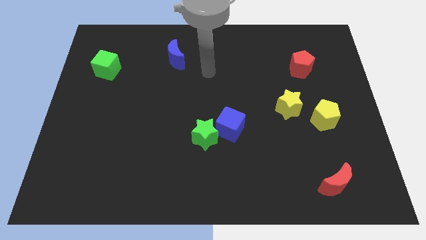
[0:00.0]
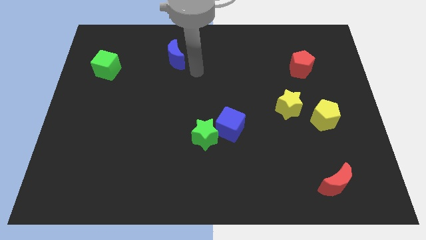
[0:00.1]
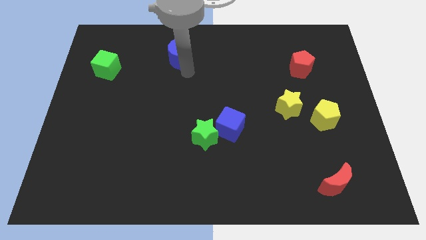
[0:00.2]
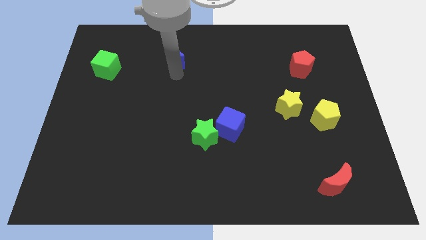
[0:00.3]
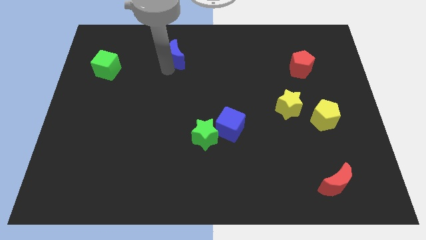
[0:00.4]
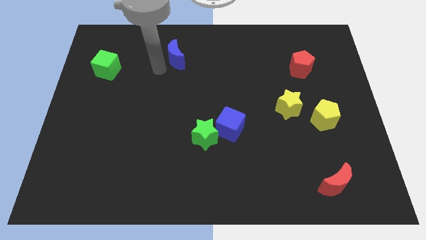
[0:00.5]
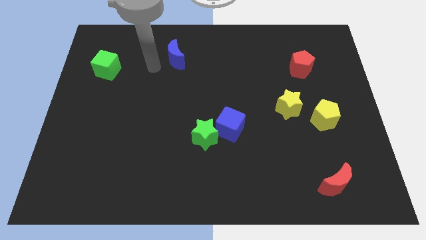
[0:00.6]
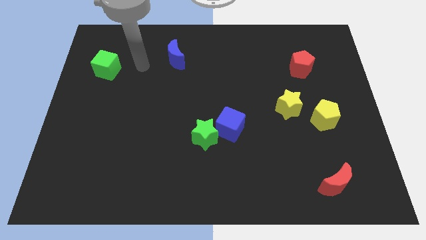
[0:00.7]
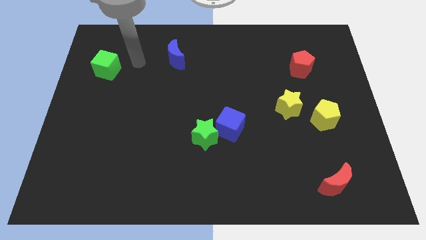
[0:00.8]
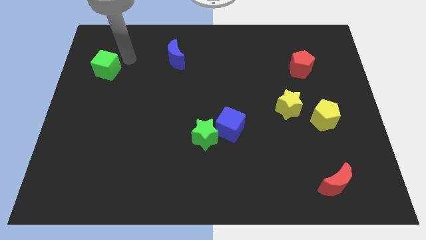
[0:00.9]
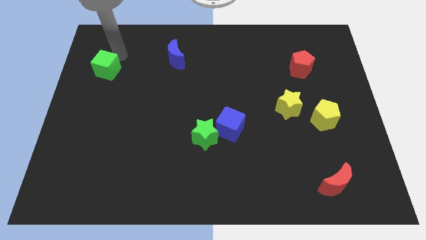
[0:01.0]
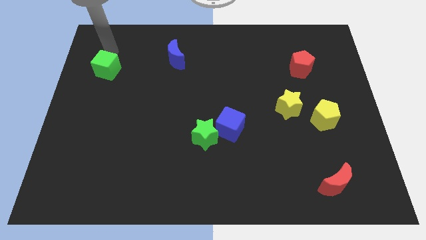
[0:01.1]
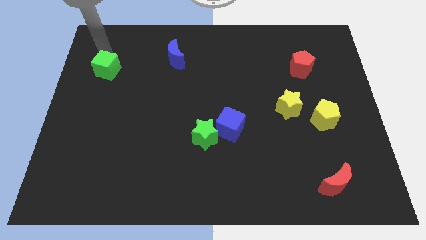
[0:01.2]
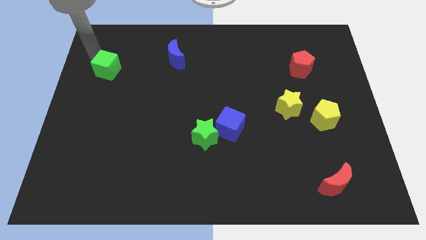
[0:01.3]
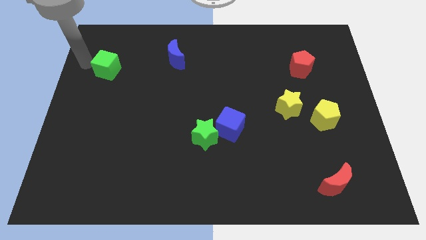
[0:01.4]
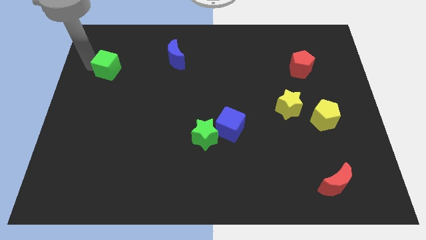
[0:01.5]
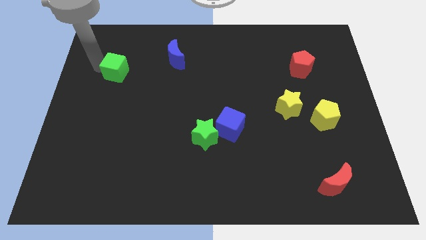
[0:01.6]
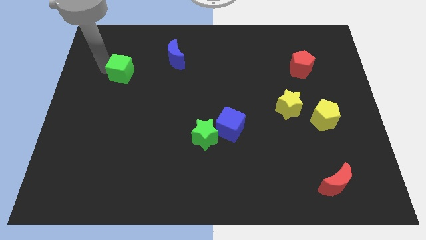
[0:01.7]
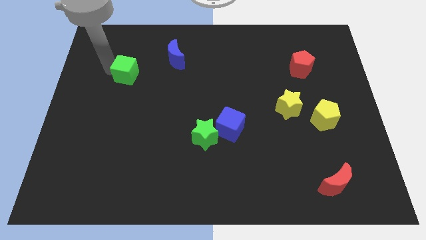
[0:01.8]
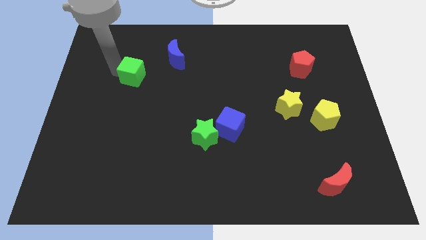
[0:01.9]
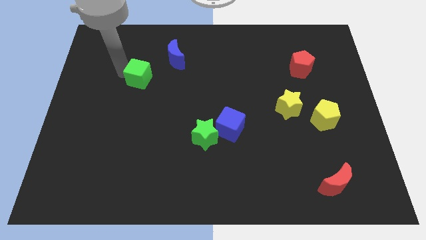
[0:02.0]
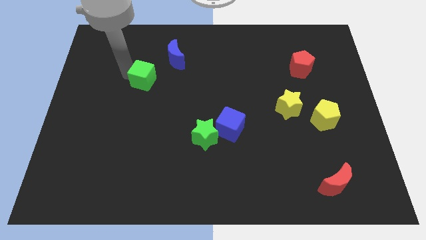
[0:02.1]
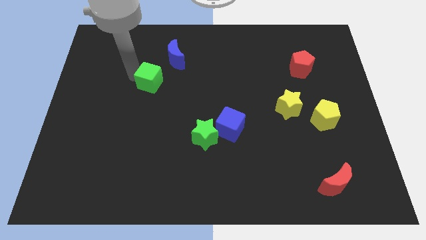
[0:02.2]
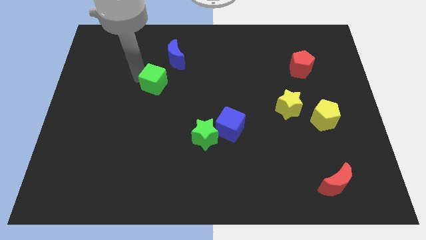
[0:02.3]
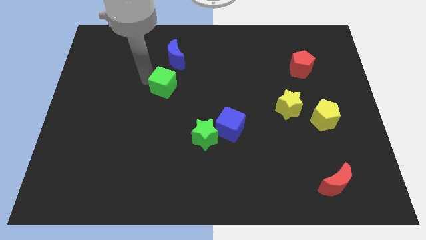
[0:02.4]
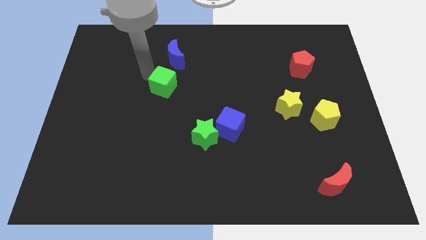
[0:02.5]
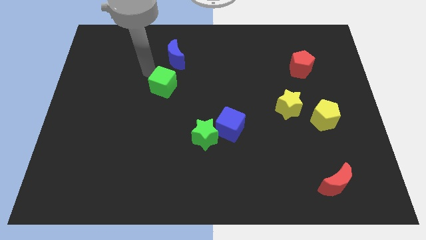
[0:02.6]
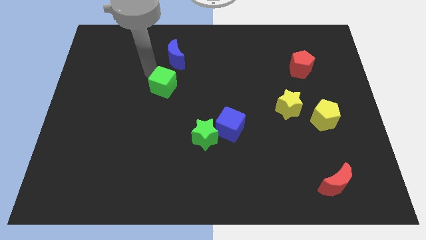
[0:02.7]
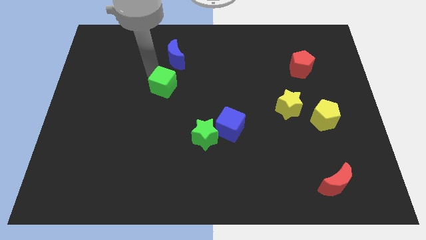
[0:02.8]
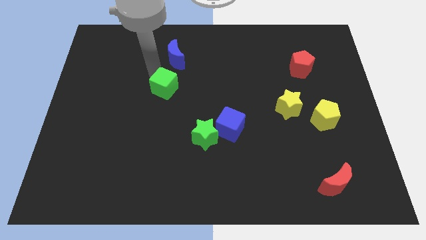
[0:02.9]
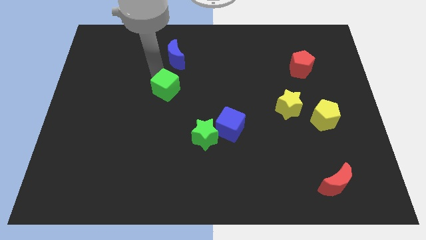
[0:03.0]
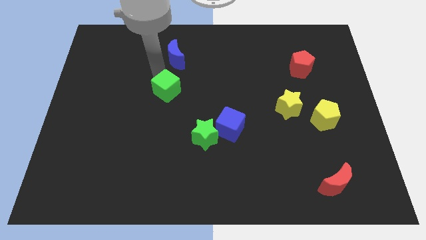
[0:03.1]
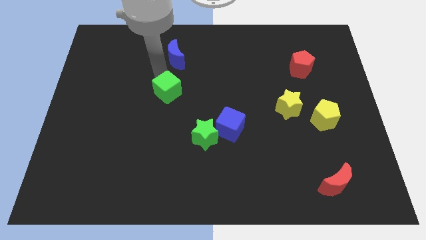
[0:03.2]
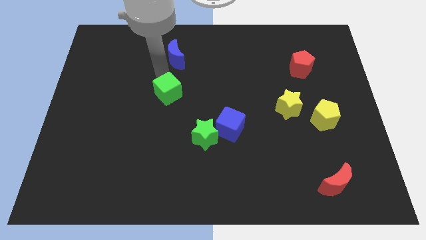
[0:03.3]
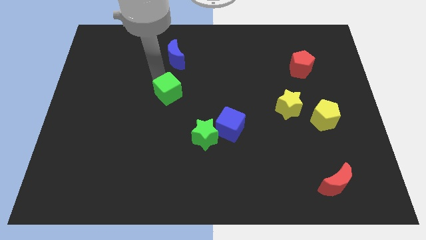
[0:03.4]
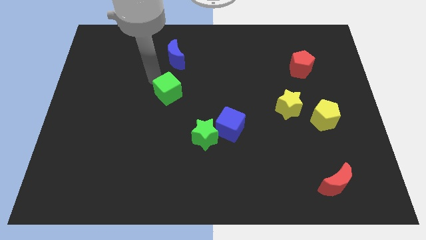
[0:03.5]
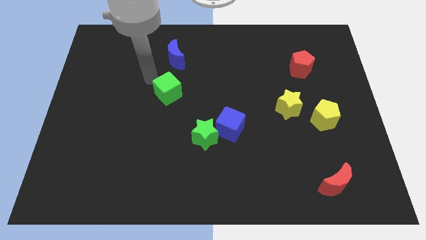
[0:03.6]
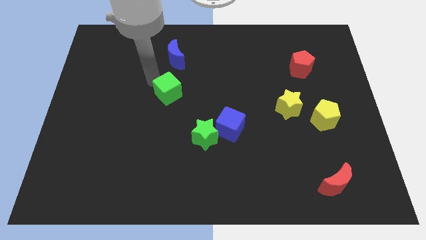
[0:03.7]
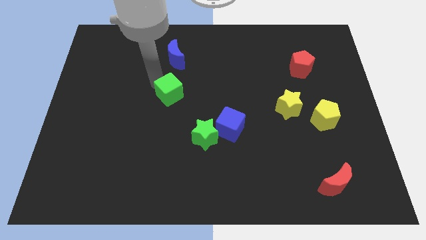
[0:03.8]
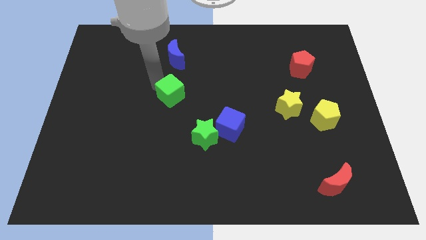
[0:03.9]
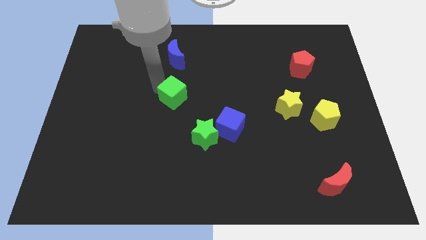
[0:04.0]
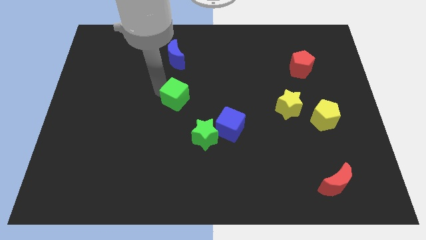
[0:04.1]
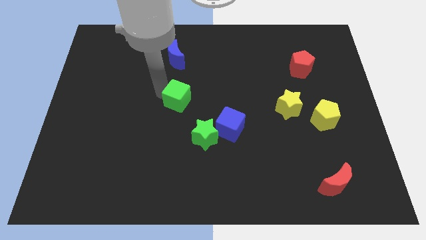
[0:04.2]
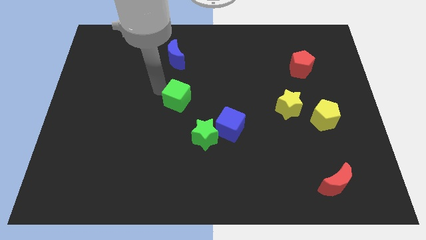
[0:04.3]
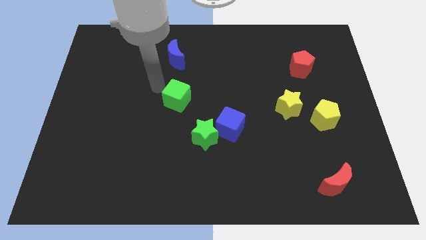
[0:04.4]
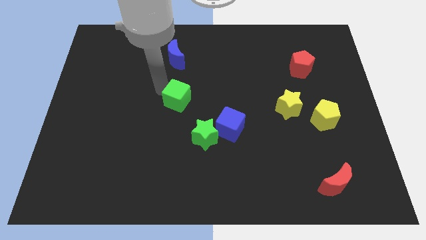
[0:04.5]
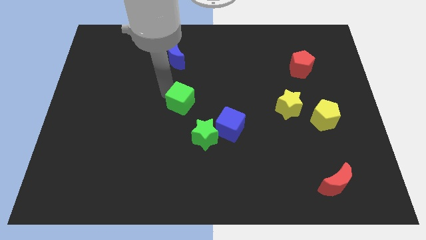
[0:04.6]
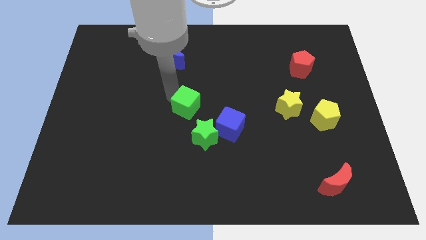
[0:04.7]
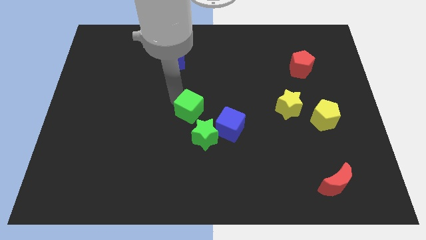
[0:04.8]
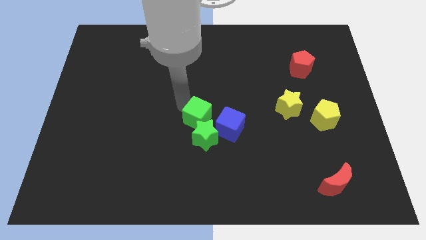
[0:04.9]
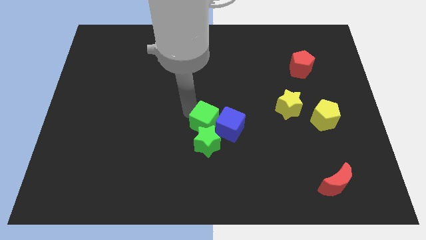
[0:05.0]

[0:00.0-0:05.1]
move the green cube next to the blue cube

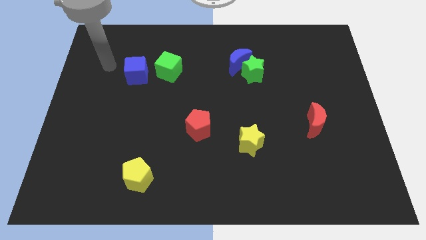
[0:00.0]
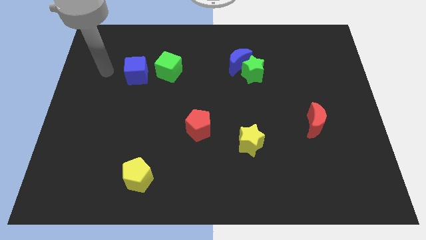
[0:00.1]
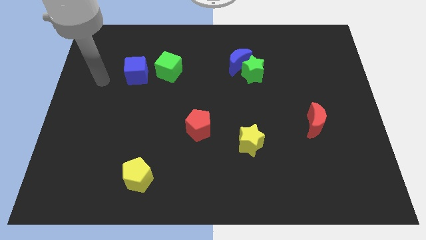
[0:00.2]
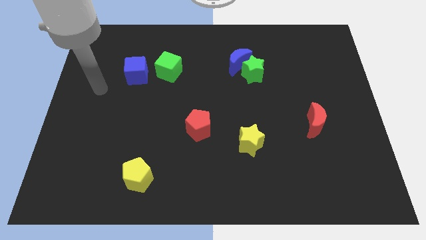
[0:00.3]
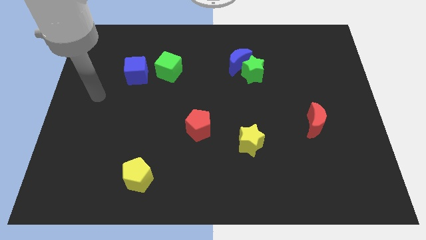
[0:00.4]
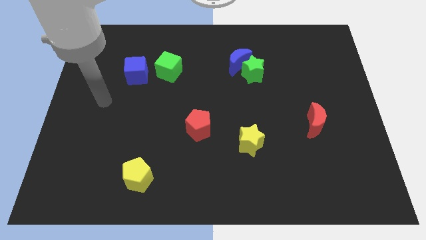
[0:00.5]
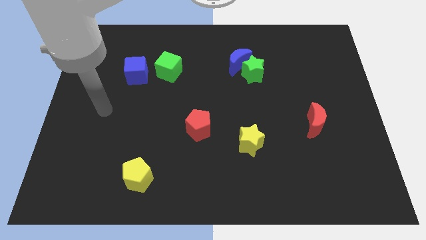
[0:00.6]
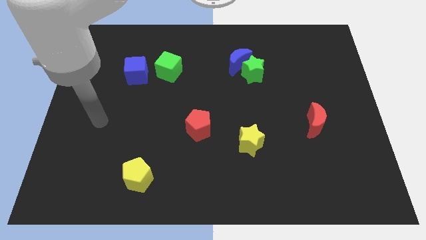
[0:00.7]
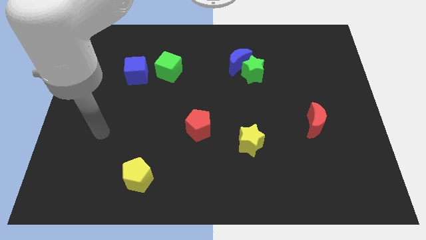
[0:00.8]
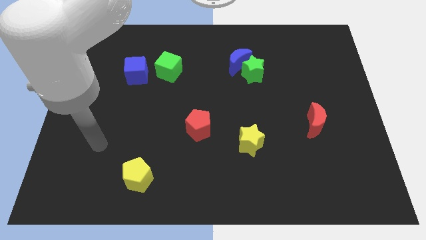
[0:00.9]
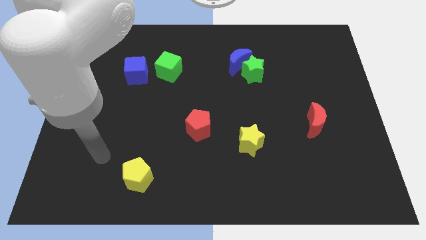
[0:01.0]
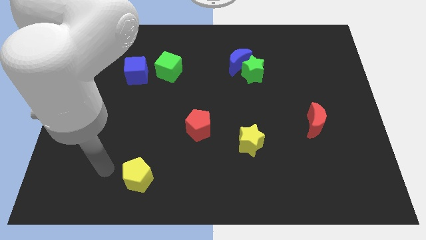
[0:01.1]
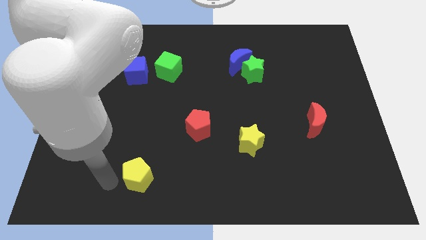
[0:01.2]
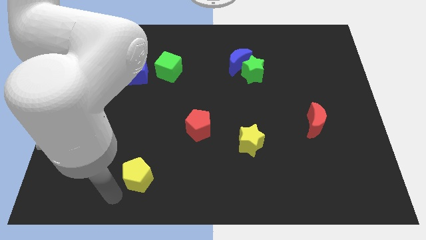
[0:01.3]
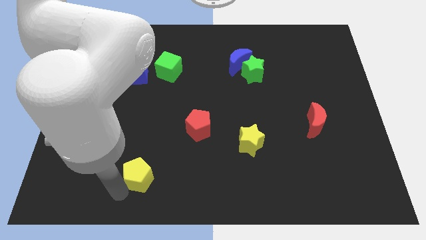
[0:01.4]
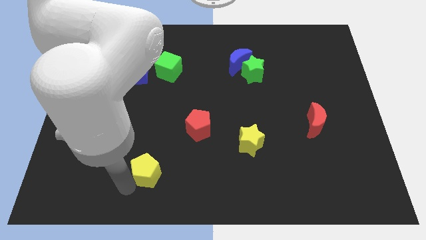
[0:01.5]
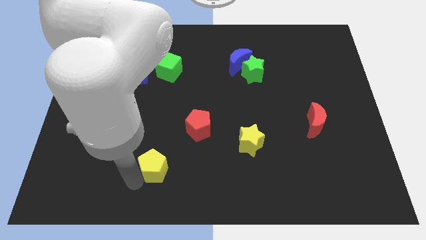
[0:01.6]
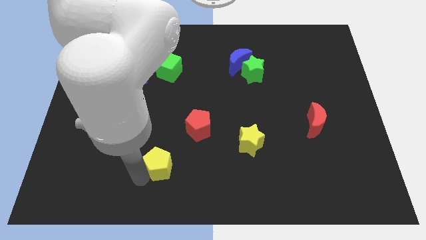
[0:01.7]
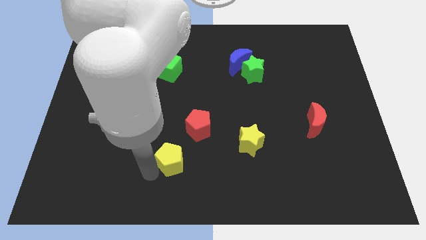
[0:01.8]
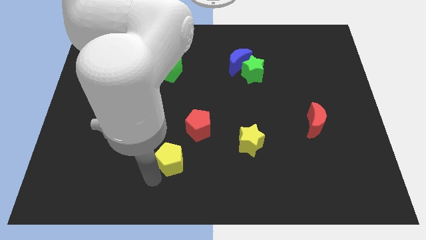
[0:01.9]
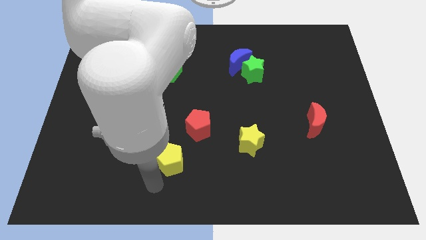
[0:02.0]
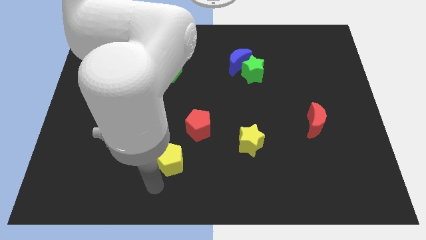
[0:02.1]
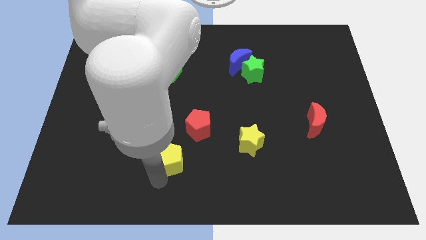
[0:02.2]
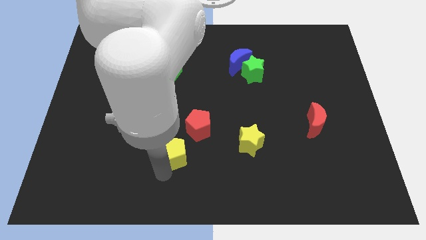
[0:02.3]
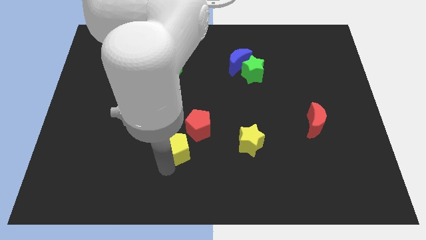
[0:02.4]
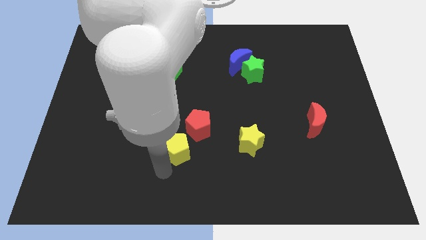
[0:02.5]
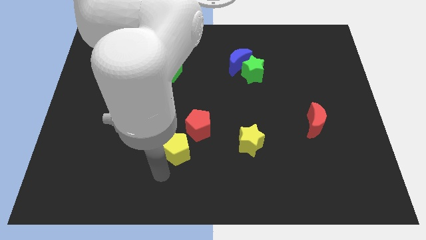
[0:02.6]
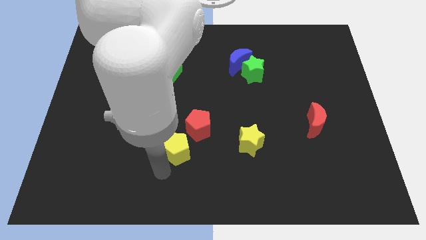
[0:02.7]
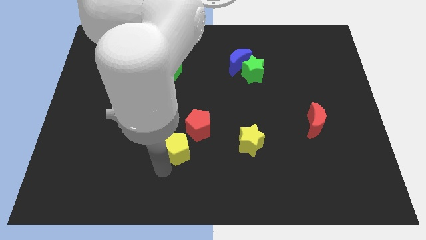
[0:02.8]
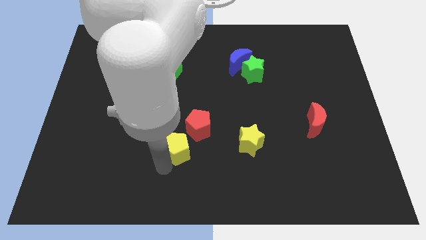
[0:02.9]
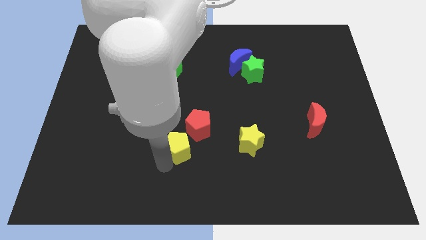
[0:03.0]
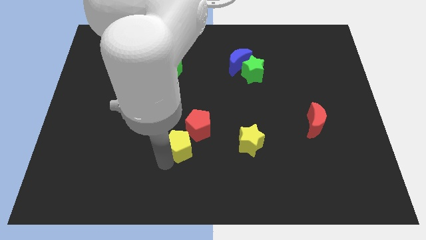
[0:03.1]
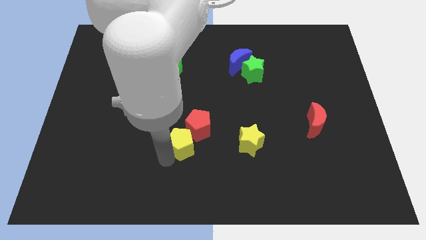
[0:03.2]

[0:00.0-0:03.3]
put the yellow pentagon towards the red pentagon
